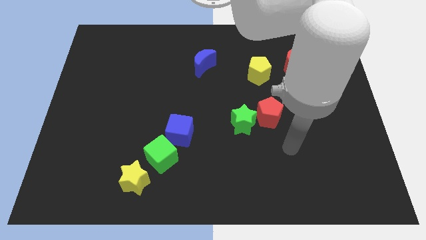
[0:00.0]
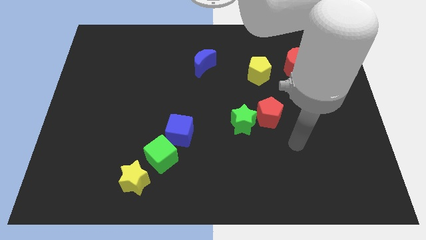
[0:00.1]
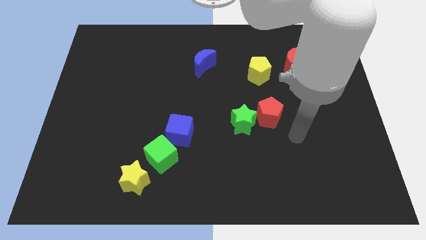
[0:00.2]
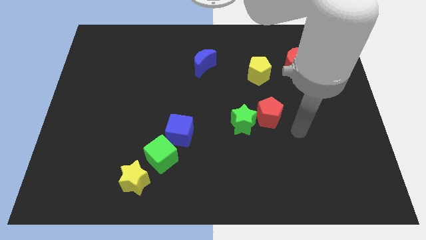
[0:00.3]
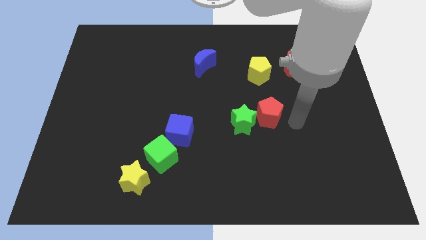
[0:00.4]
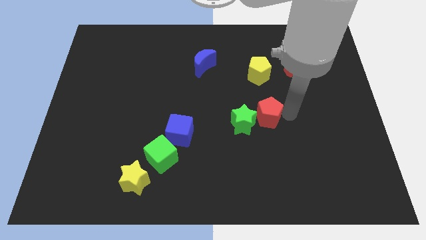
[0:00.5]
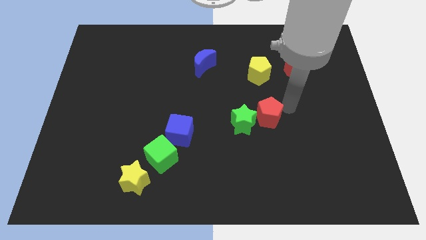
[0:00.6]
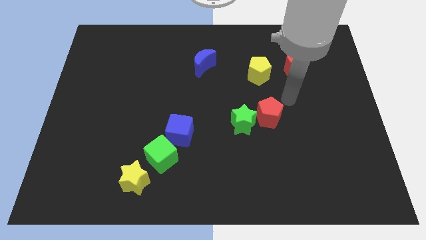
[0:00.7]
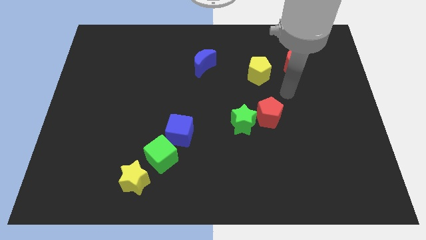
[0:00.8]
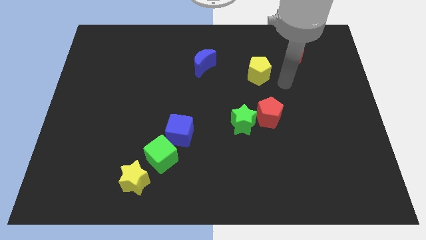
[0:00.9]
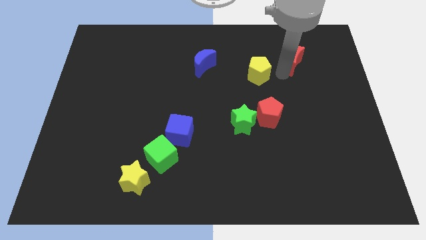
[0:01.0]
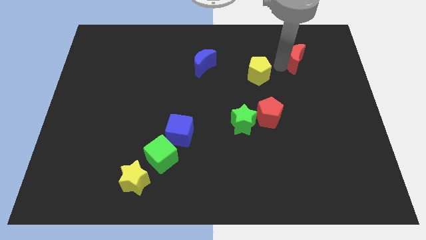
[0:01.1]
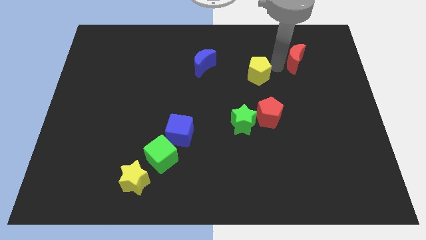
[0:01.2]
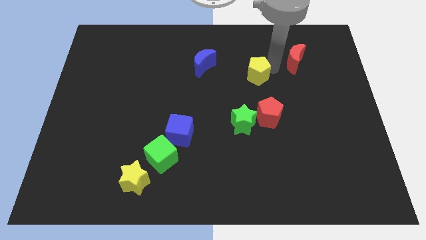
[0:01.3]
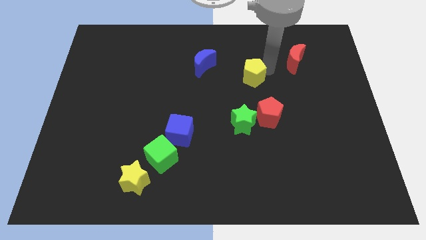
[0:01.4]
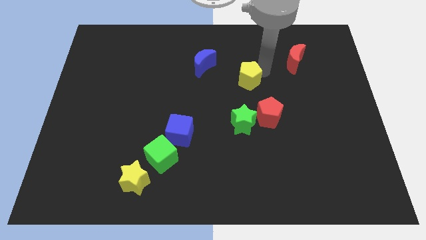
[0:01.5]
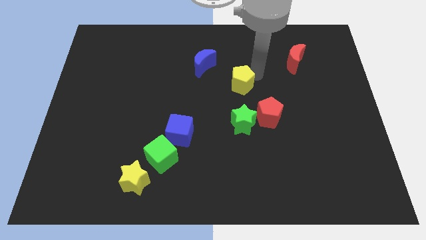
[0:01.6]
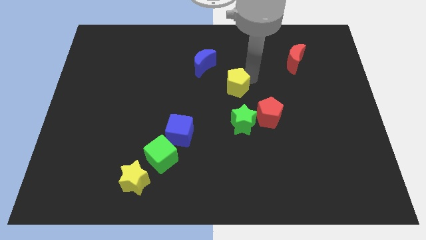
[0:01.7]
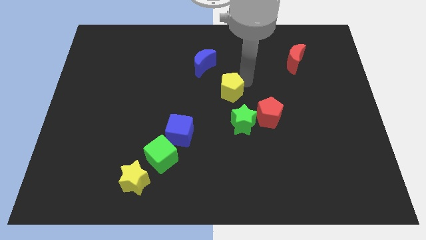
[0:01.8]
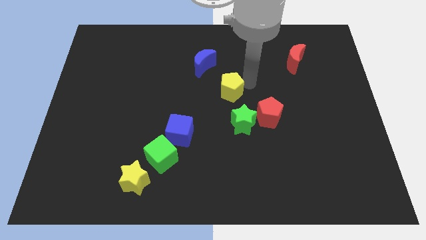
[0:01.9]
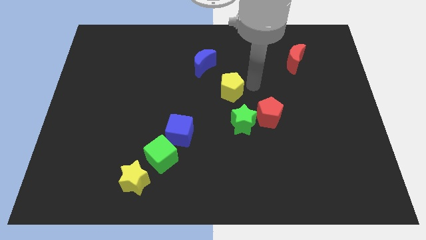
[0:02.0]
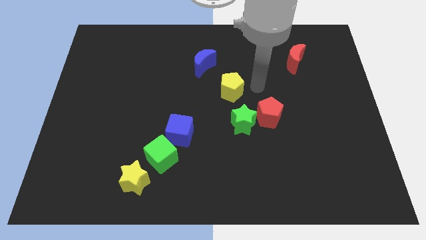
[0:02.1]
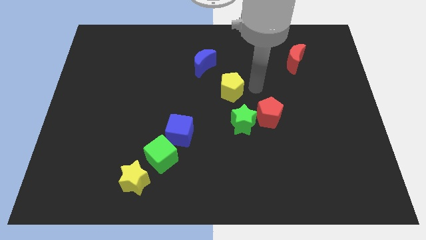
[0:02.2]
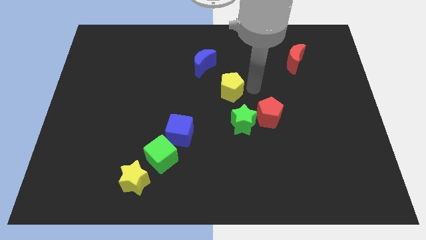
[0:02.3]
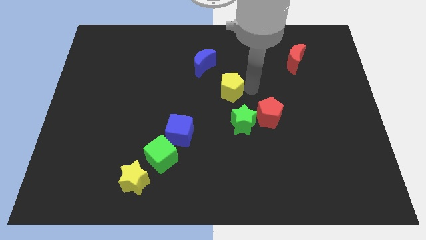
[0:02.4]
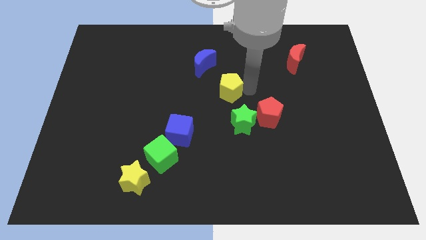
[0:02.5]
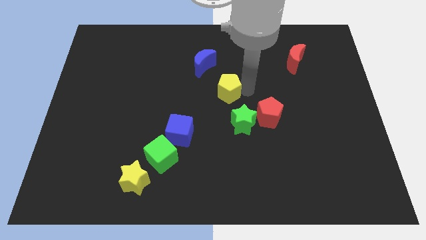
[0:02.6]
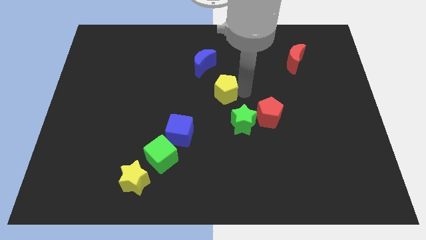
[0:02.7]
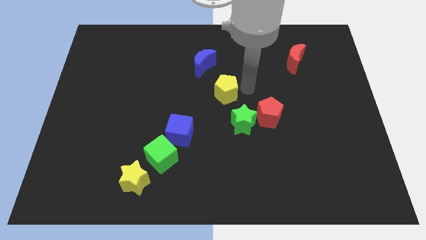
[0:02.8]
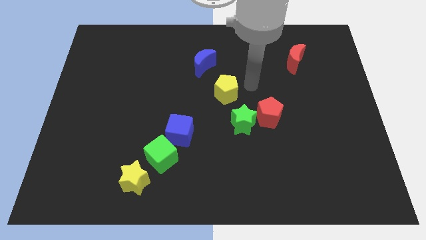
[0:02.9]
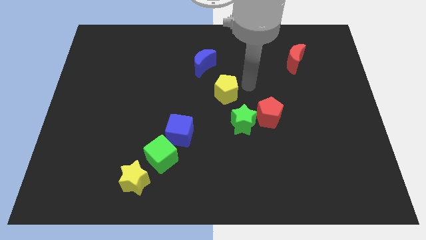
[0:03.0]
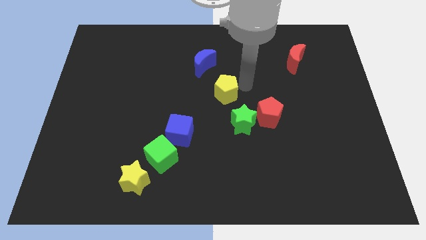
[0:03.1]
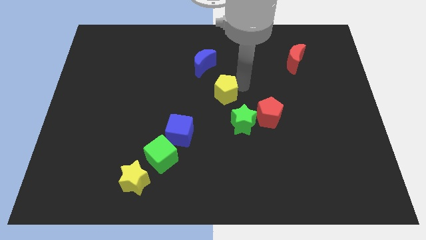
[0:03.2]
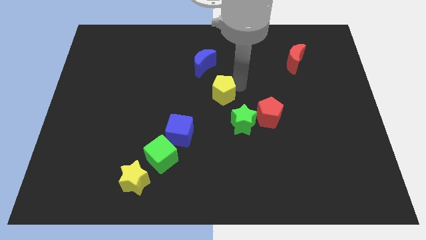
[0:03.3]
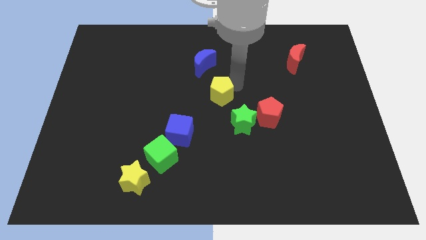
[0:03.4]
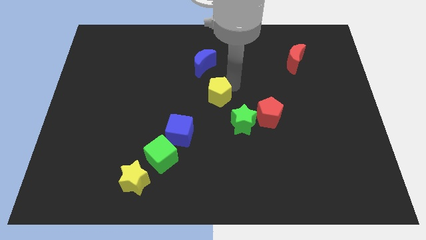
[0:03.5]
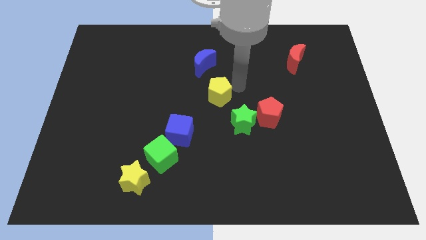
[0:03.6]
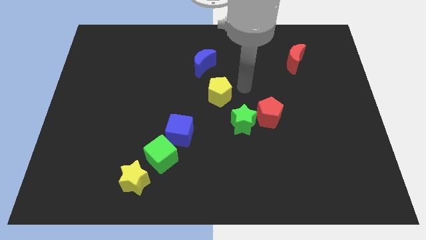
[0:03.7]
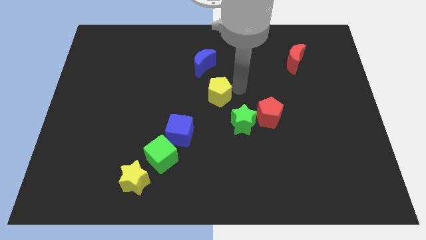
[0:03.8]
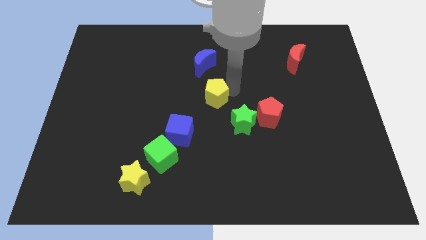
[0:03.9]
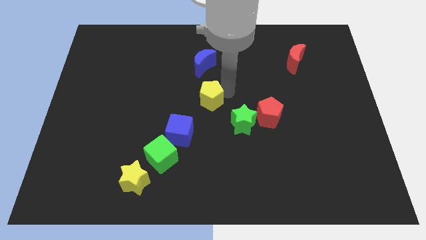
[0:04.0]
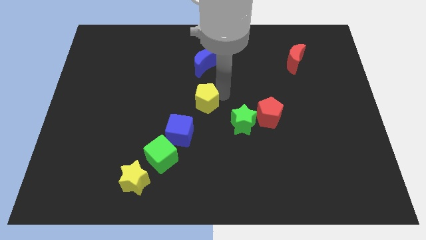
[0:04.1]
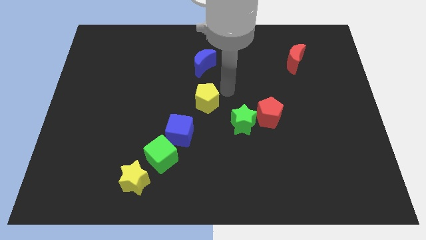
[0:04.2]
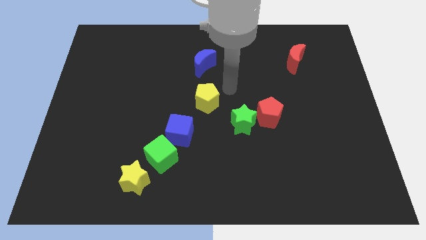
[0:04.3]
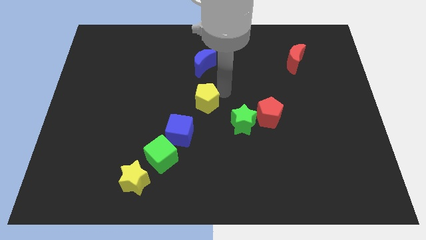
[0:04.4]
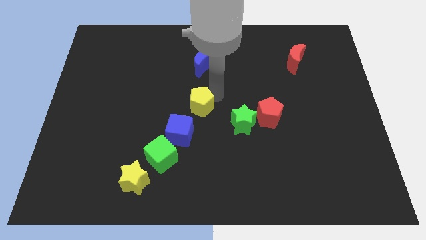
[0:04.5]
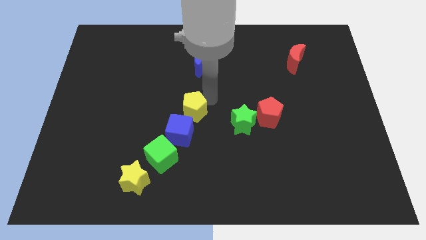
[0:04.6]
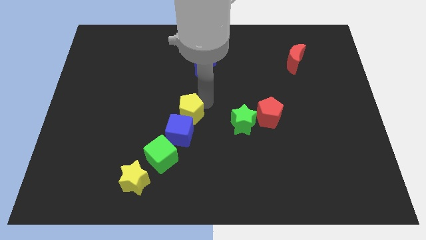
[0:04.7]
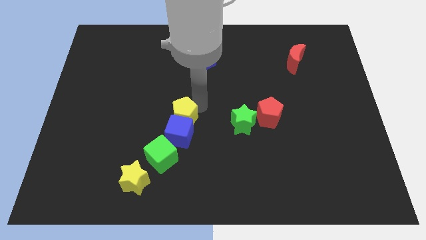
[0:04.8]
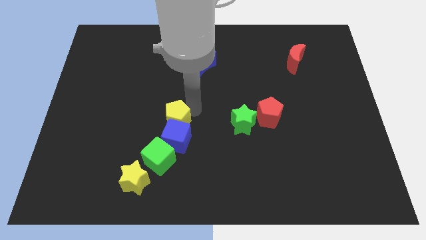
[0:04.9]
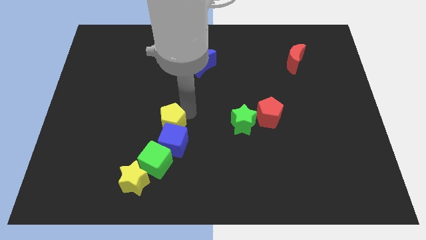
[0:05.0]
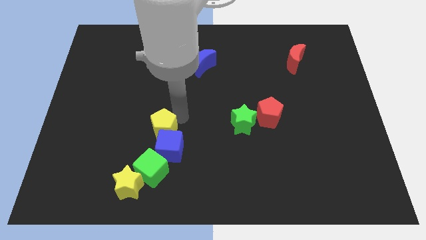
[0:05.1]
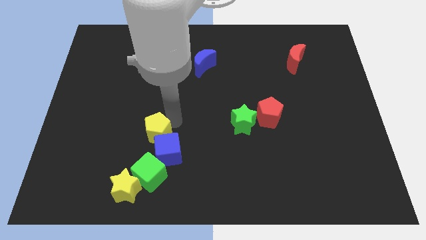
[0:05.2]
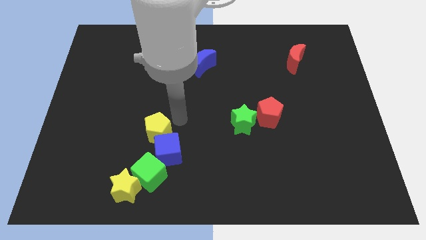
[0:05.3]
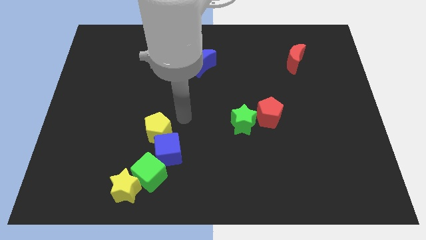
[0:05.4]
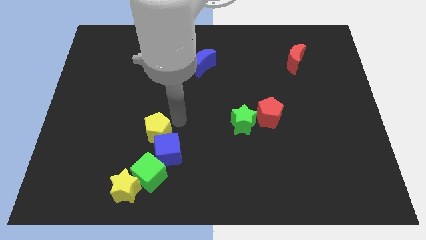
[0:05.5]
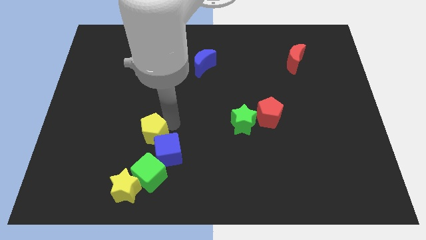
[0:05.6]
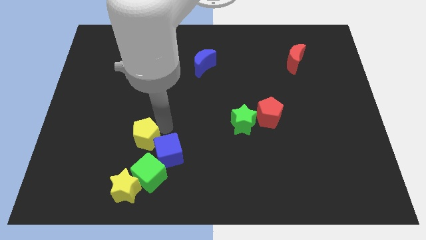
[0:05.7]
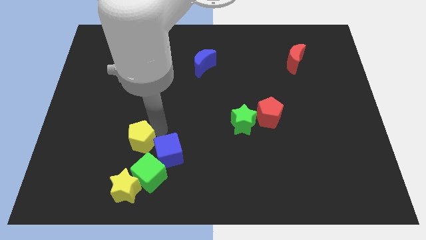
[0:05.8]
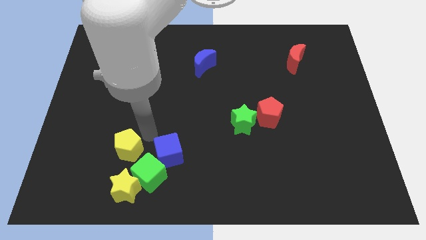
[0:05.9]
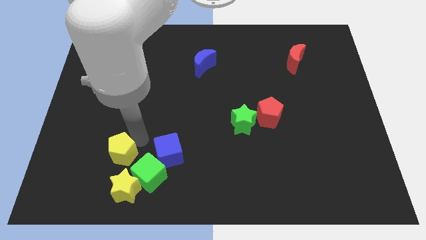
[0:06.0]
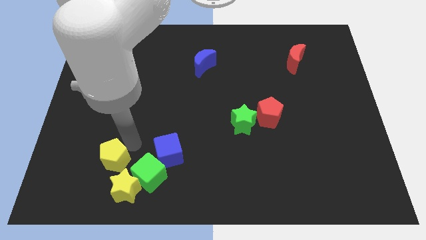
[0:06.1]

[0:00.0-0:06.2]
push the yellow pentagon left of the green cube

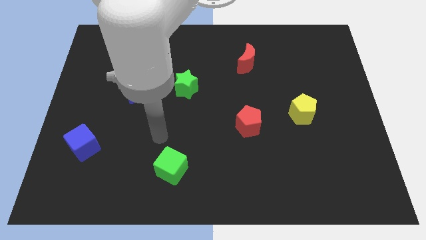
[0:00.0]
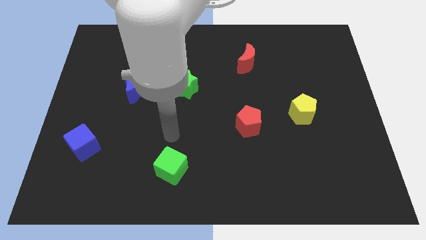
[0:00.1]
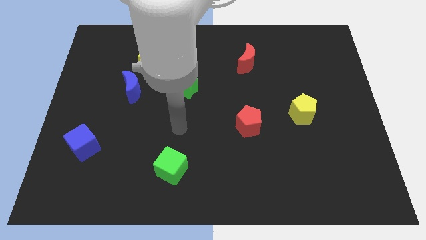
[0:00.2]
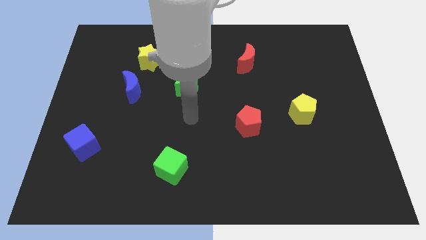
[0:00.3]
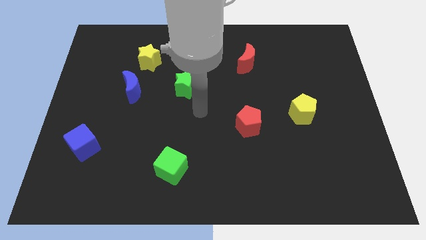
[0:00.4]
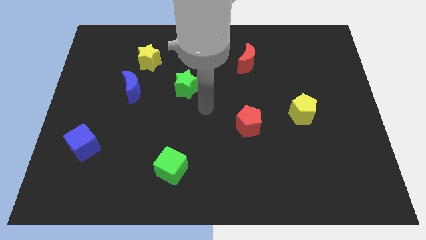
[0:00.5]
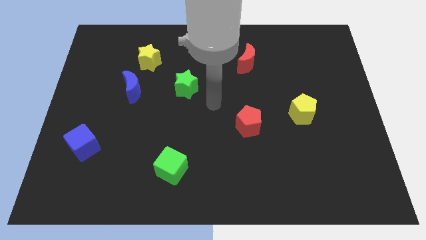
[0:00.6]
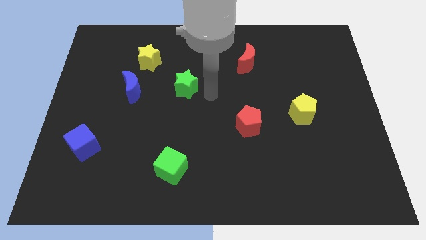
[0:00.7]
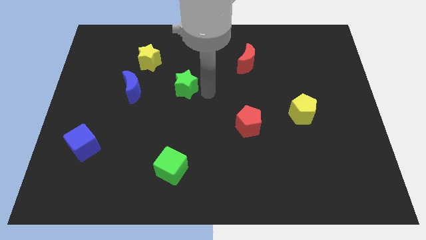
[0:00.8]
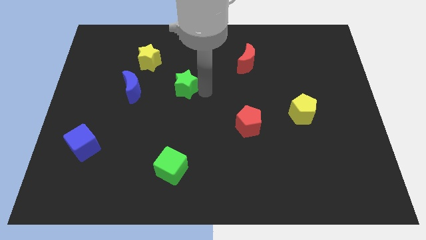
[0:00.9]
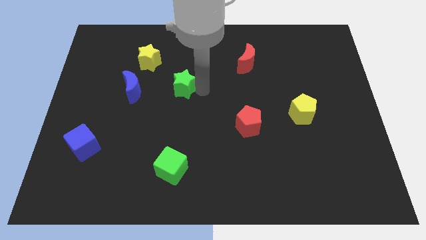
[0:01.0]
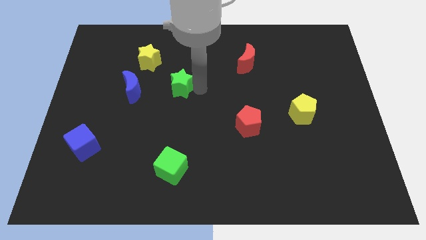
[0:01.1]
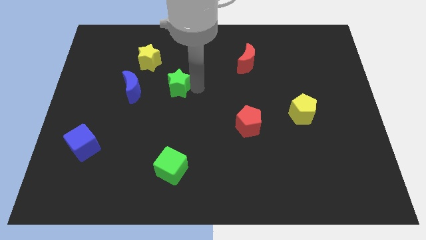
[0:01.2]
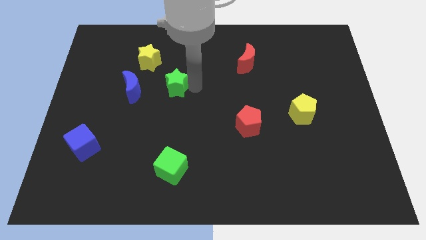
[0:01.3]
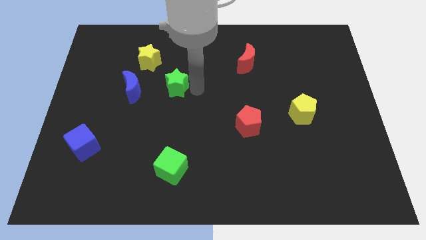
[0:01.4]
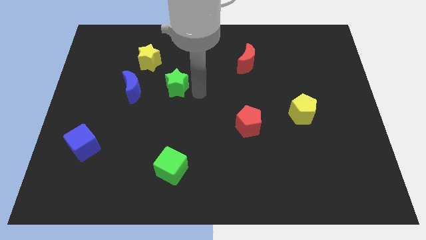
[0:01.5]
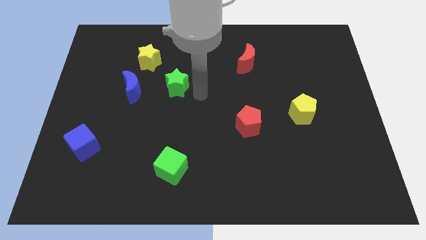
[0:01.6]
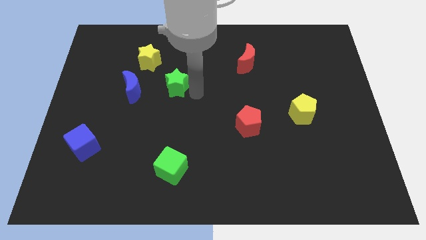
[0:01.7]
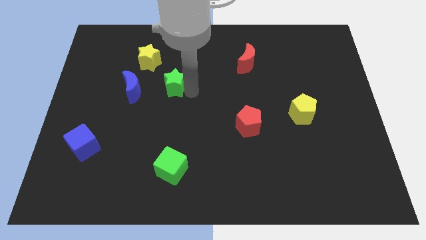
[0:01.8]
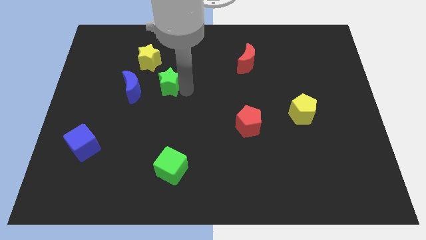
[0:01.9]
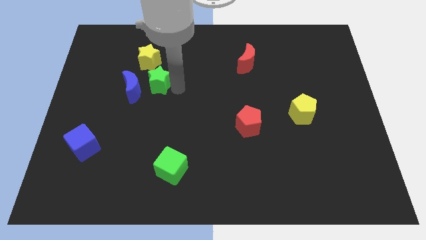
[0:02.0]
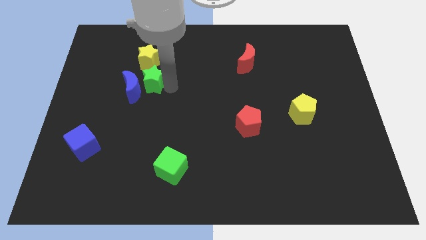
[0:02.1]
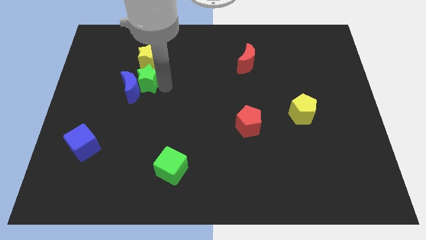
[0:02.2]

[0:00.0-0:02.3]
put the green star above the blue moon
